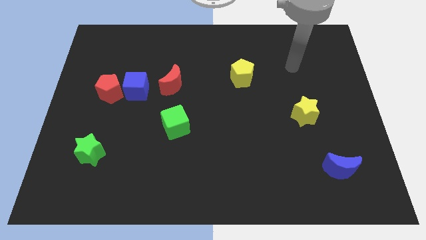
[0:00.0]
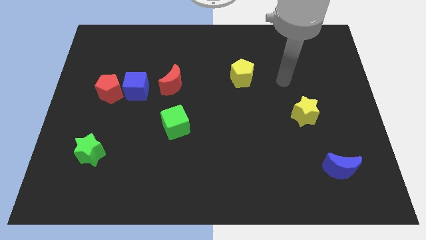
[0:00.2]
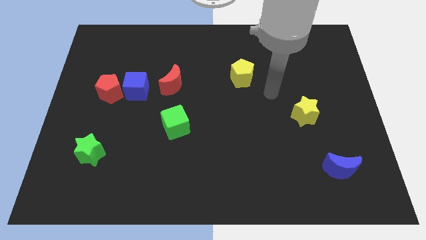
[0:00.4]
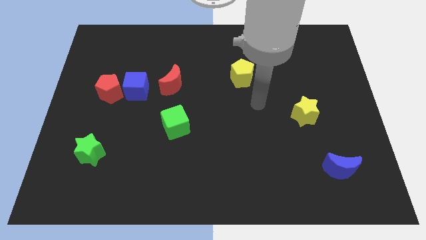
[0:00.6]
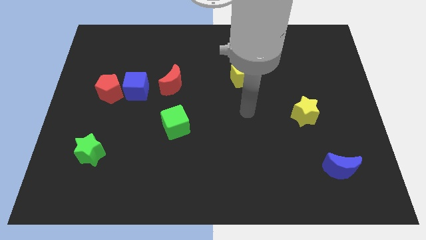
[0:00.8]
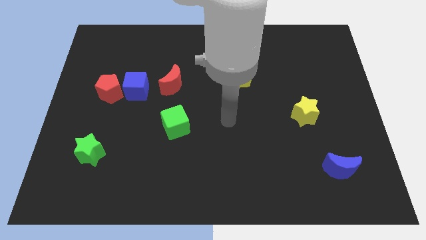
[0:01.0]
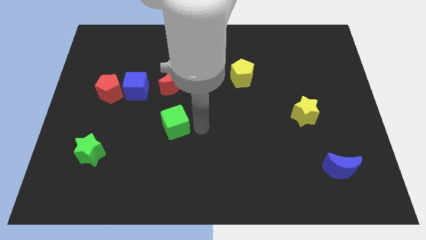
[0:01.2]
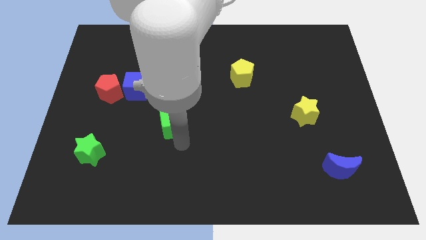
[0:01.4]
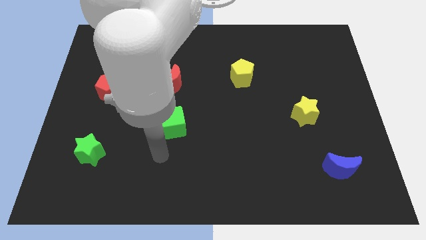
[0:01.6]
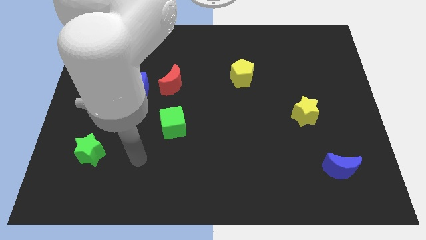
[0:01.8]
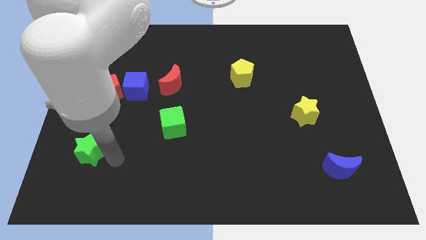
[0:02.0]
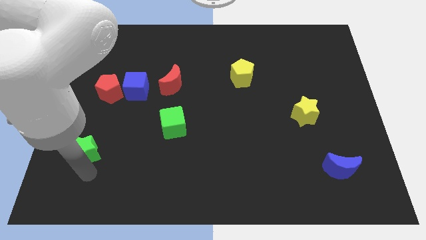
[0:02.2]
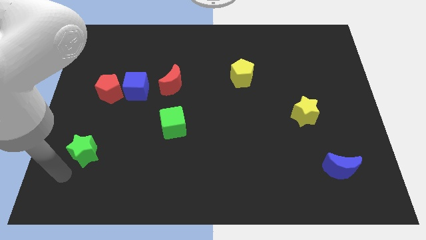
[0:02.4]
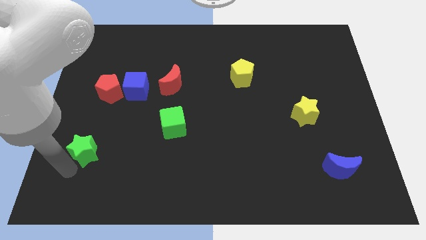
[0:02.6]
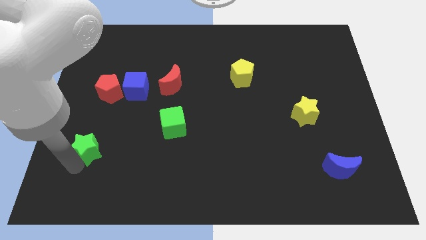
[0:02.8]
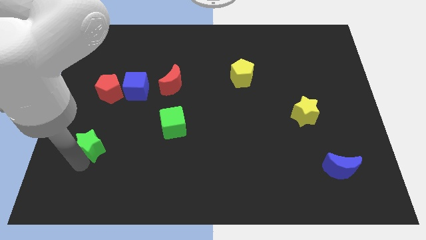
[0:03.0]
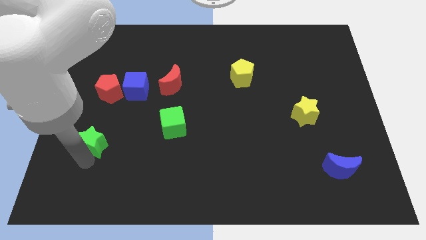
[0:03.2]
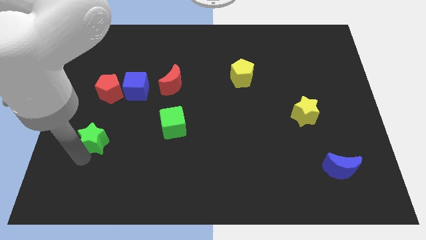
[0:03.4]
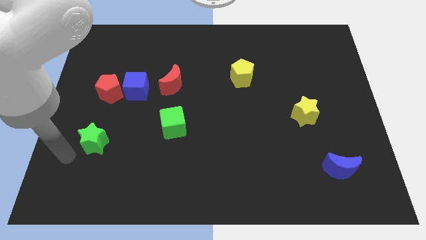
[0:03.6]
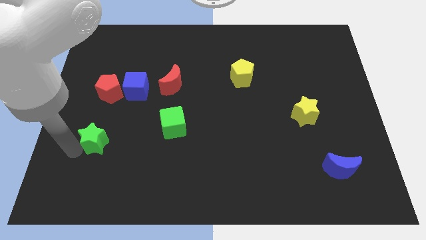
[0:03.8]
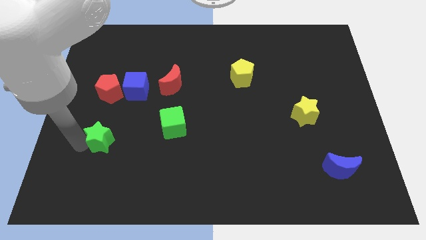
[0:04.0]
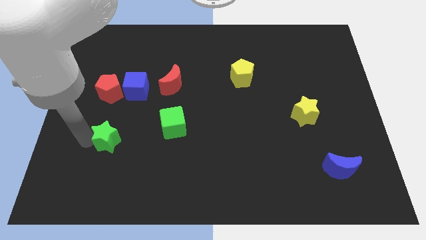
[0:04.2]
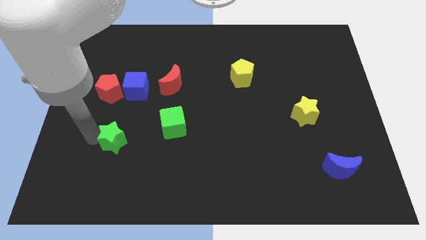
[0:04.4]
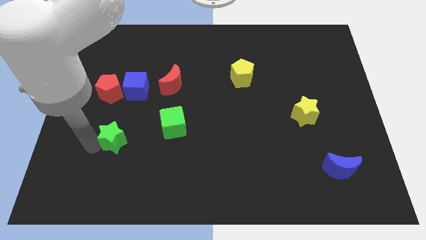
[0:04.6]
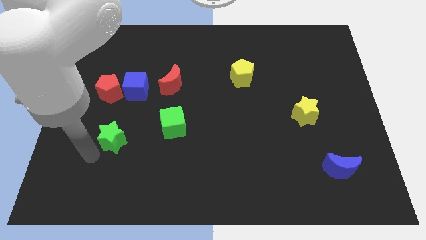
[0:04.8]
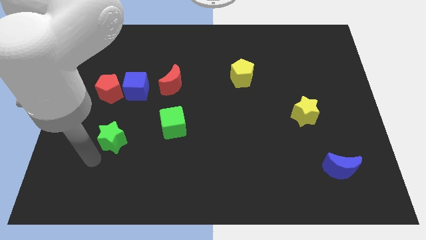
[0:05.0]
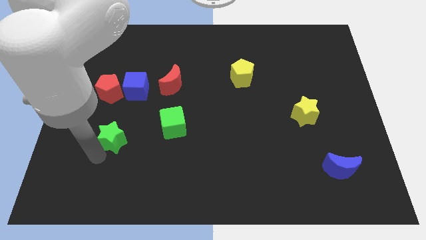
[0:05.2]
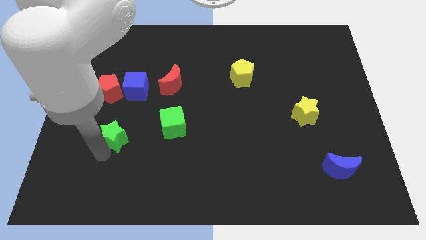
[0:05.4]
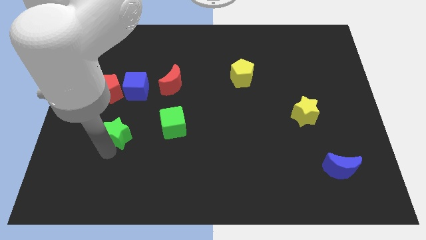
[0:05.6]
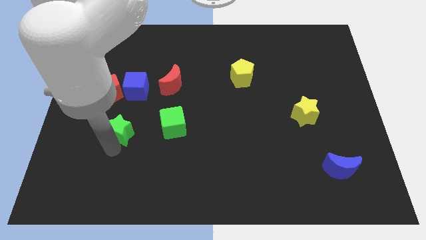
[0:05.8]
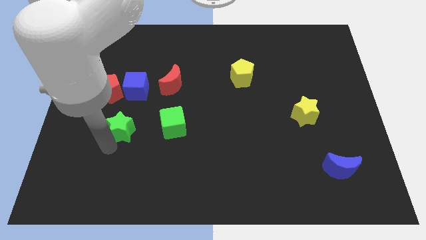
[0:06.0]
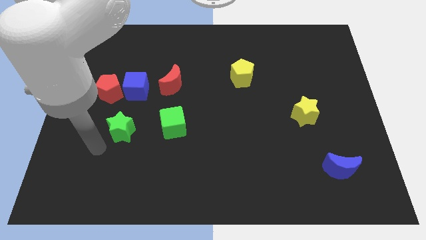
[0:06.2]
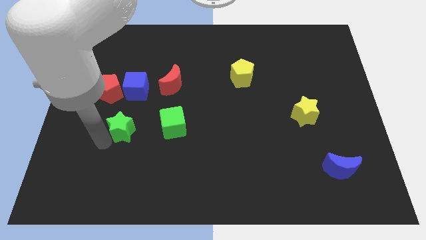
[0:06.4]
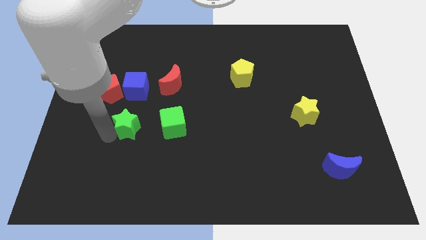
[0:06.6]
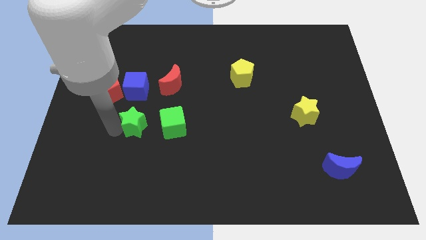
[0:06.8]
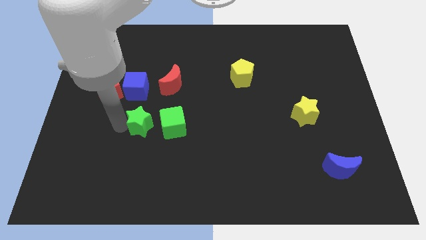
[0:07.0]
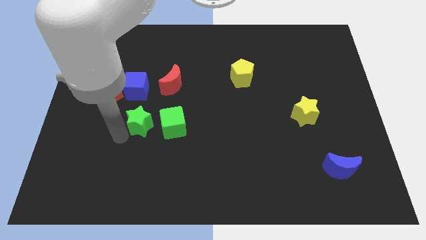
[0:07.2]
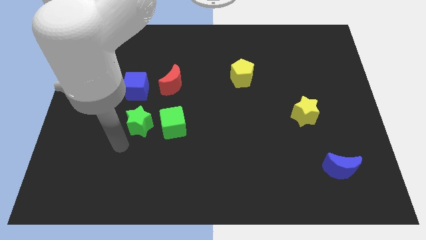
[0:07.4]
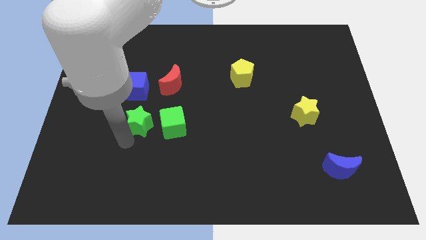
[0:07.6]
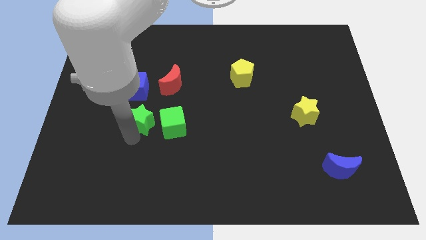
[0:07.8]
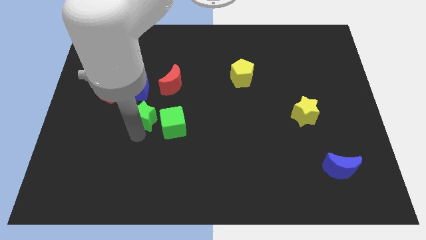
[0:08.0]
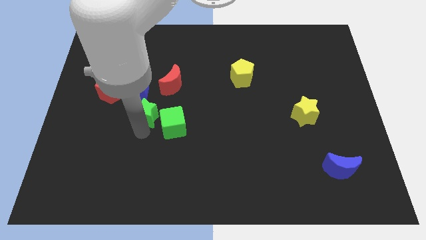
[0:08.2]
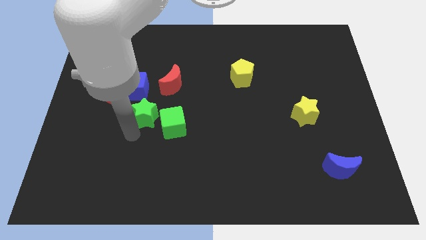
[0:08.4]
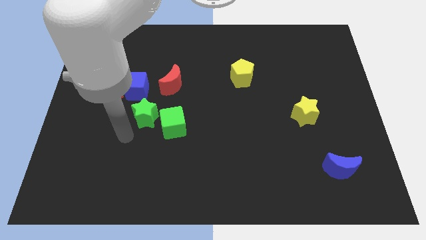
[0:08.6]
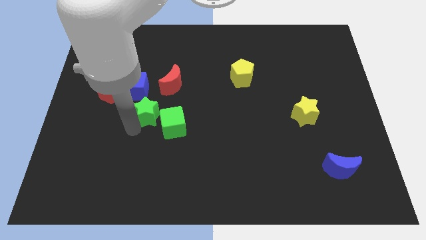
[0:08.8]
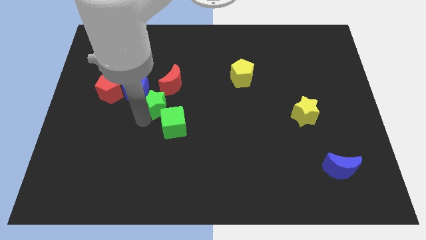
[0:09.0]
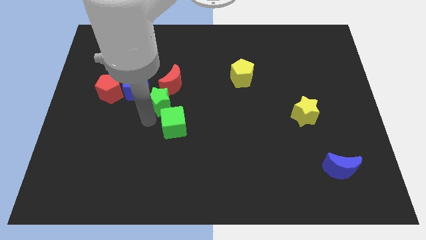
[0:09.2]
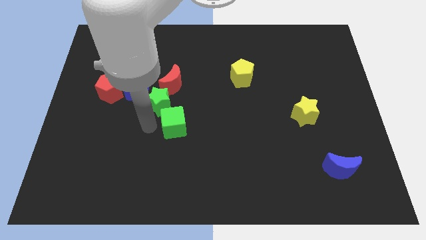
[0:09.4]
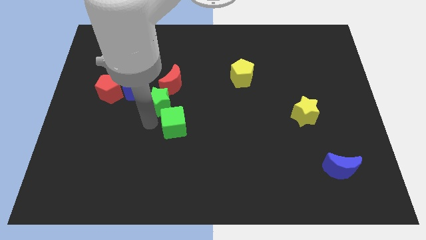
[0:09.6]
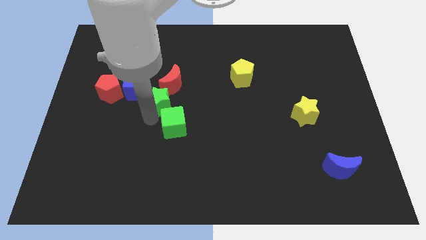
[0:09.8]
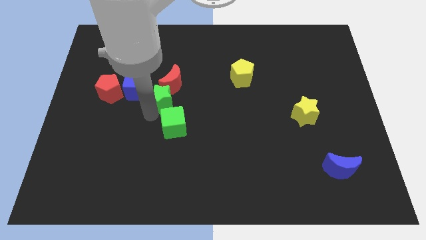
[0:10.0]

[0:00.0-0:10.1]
put the green star to the red moon

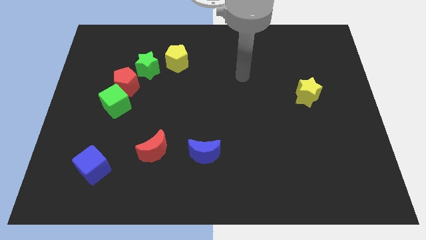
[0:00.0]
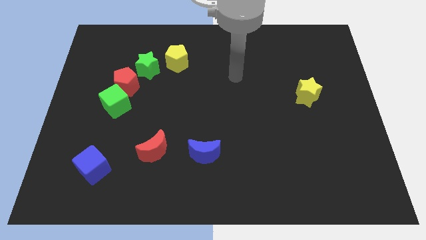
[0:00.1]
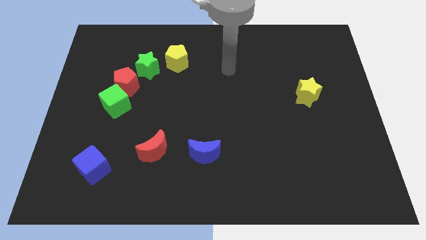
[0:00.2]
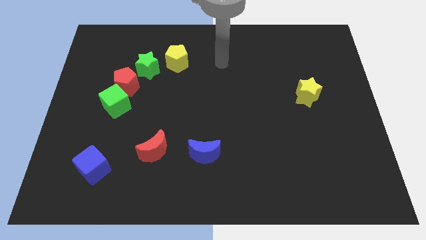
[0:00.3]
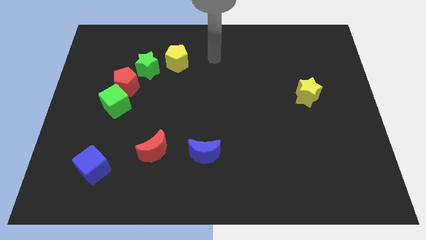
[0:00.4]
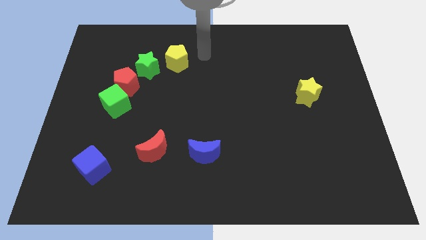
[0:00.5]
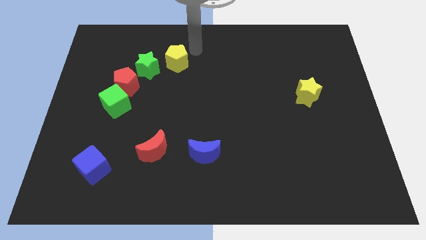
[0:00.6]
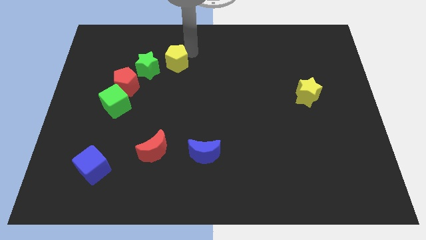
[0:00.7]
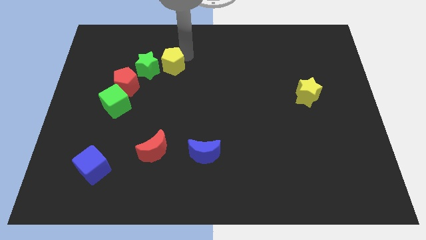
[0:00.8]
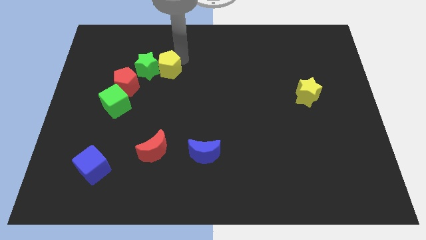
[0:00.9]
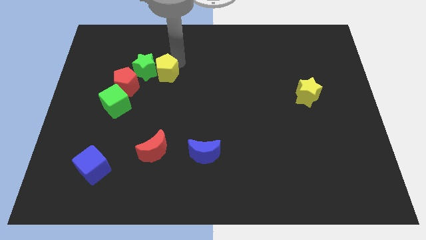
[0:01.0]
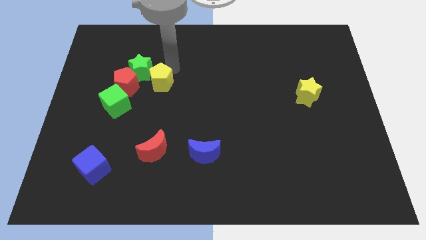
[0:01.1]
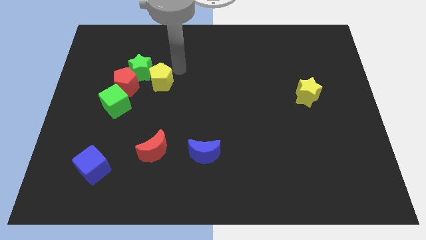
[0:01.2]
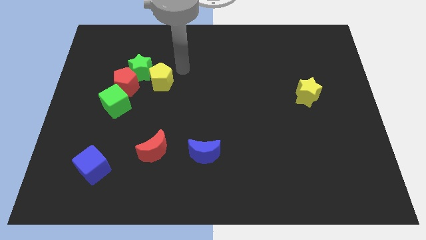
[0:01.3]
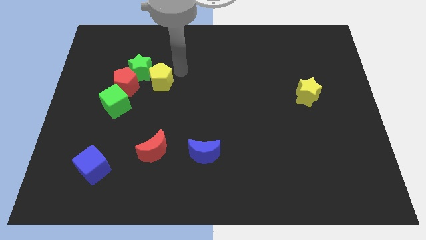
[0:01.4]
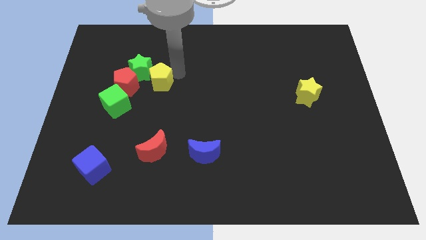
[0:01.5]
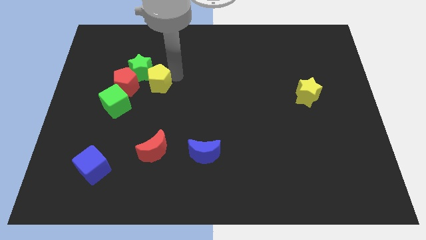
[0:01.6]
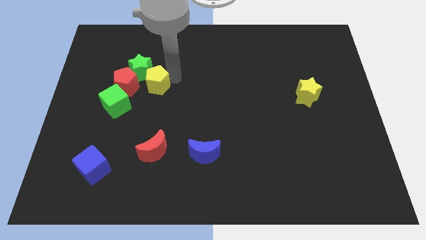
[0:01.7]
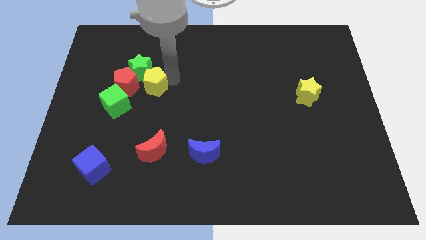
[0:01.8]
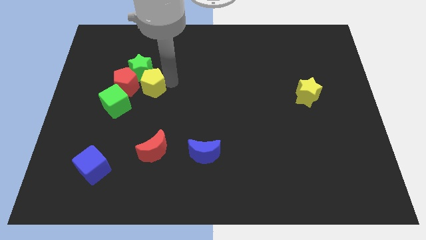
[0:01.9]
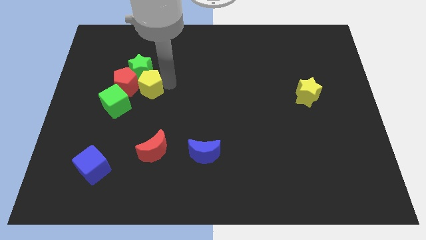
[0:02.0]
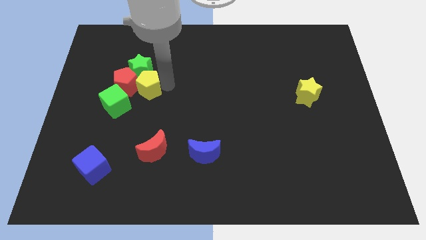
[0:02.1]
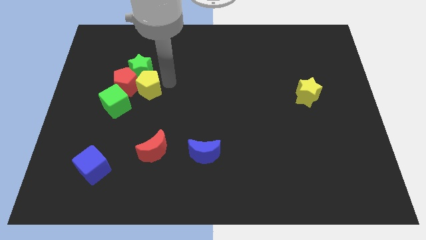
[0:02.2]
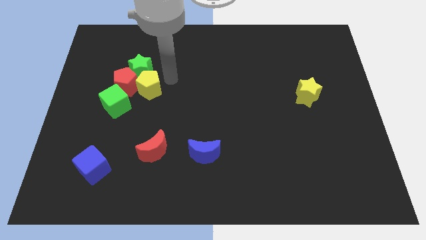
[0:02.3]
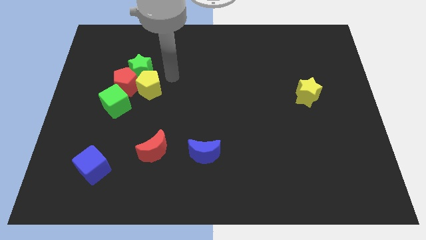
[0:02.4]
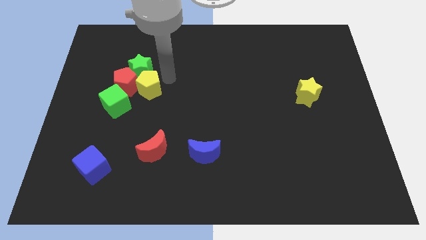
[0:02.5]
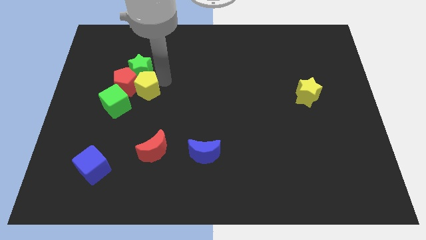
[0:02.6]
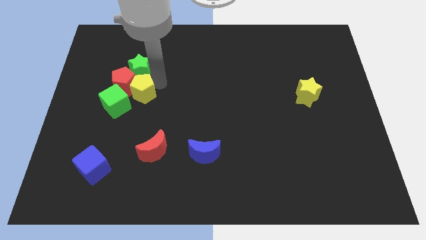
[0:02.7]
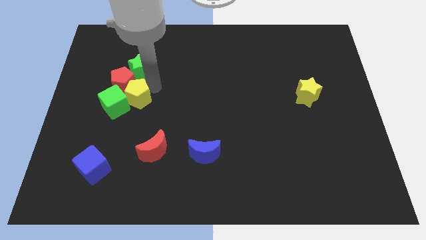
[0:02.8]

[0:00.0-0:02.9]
push the yellow pentagon next to the green cube
